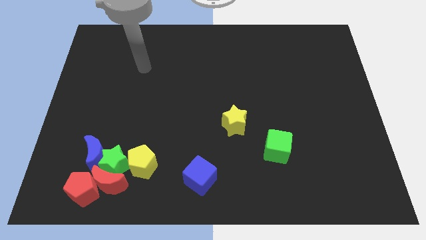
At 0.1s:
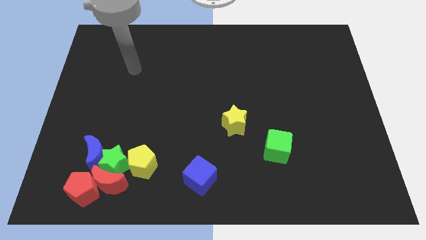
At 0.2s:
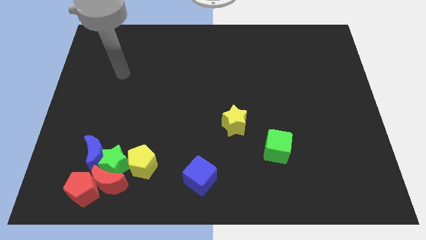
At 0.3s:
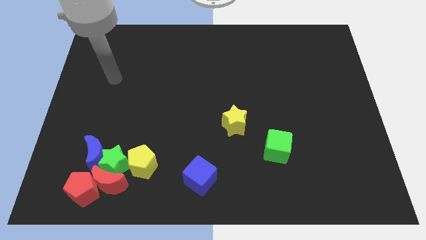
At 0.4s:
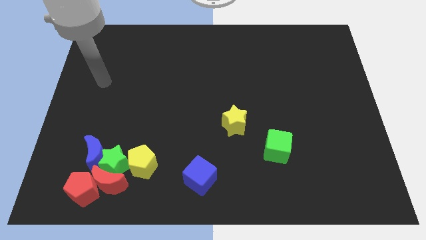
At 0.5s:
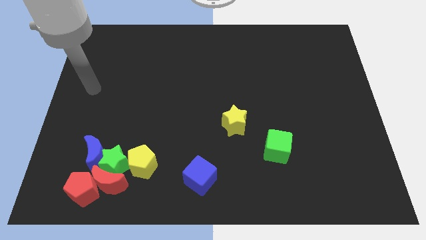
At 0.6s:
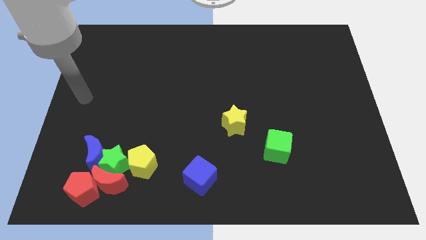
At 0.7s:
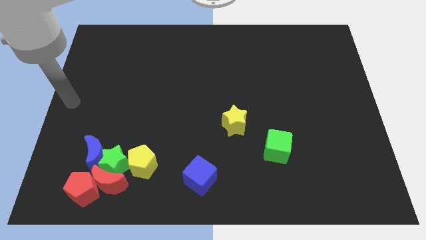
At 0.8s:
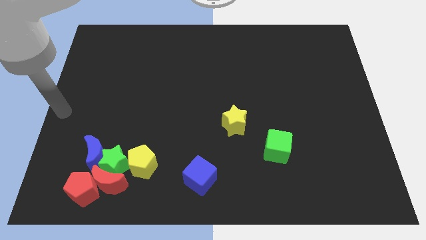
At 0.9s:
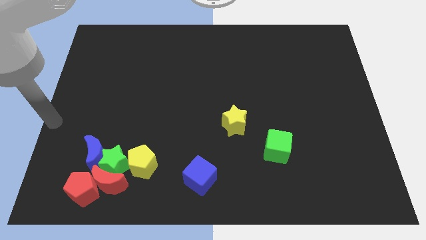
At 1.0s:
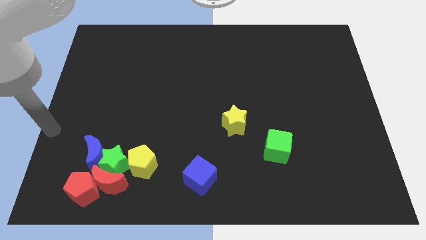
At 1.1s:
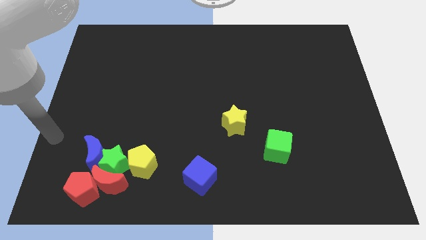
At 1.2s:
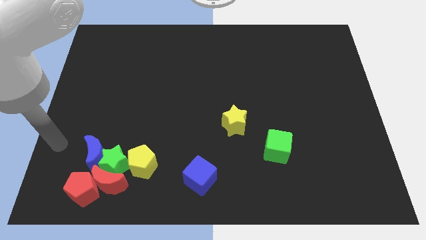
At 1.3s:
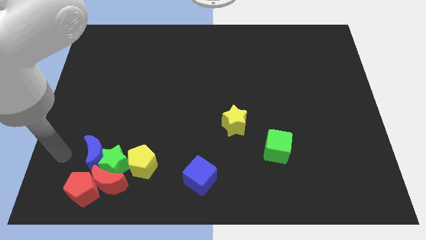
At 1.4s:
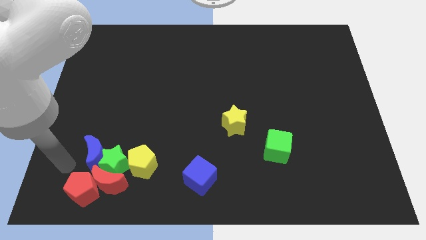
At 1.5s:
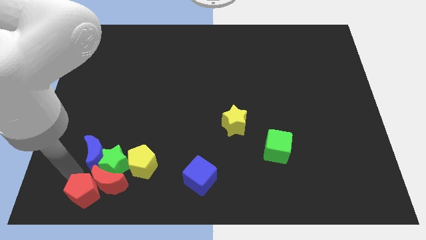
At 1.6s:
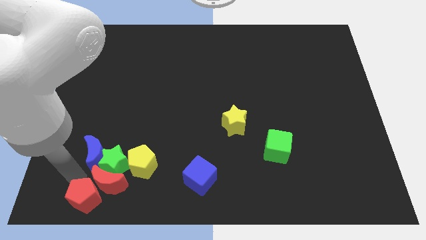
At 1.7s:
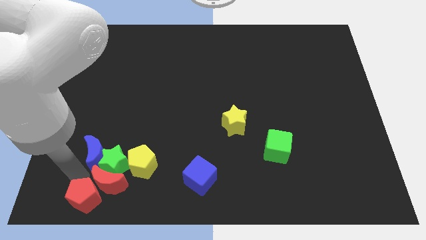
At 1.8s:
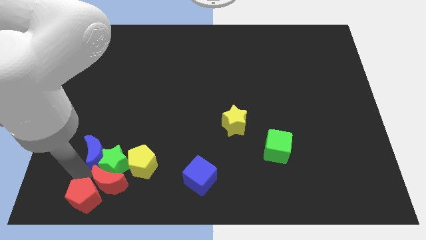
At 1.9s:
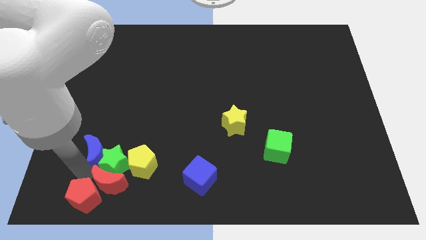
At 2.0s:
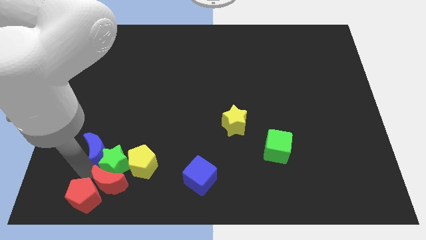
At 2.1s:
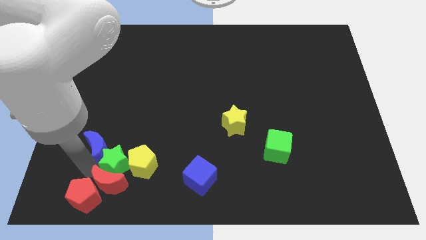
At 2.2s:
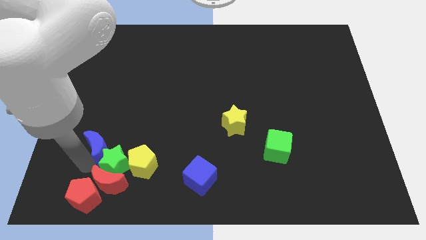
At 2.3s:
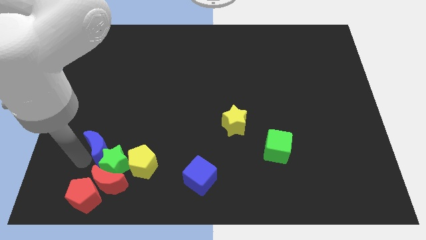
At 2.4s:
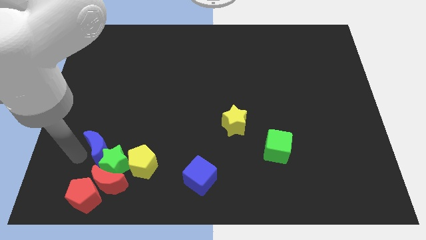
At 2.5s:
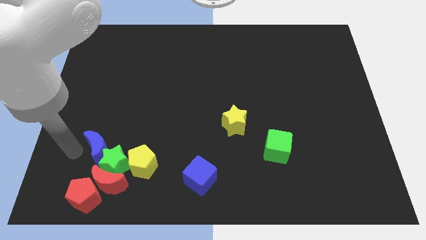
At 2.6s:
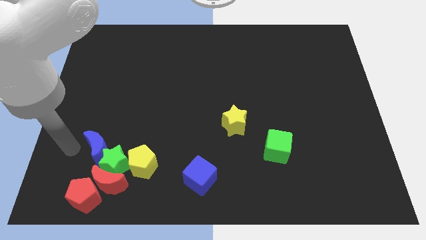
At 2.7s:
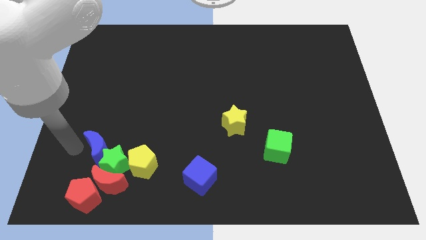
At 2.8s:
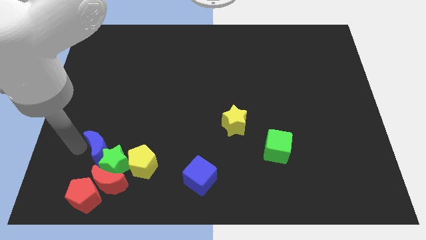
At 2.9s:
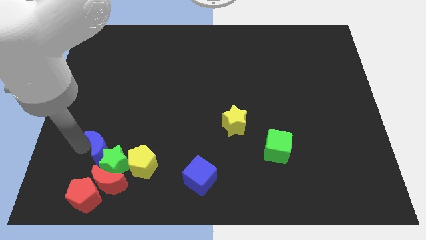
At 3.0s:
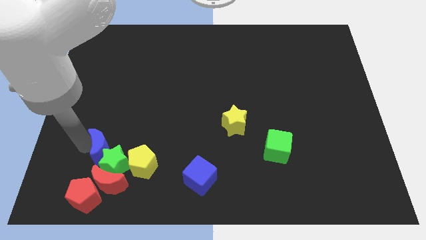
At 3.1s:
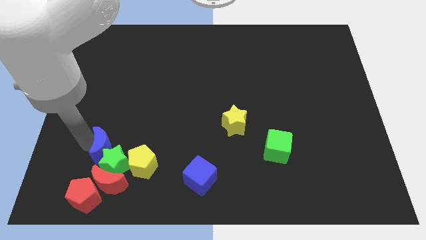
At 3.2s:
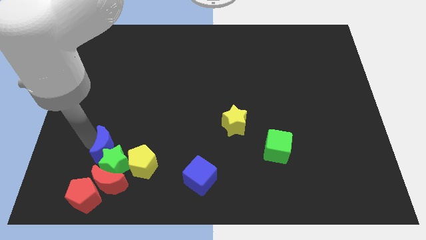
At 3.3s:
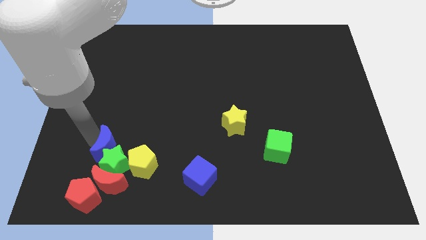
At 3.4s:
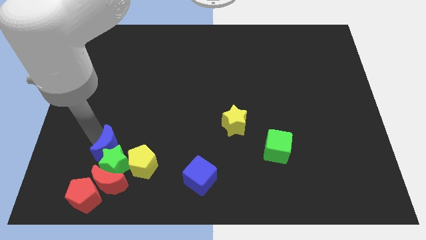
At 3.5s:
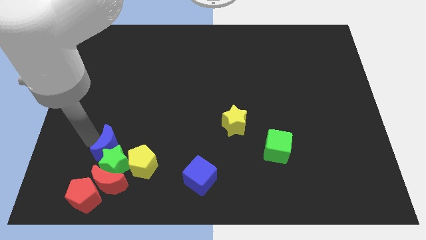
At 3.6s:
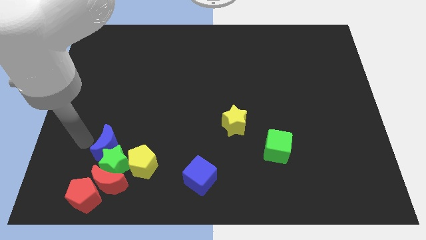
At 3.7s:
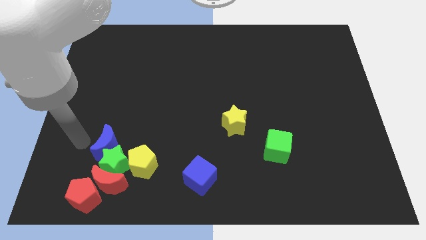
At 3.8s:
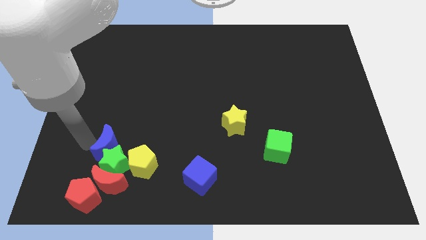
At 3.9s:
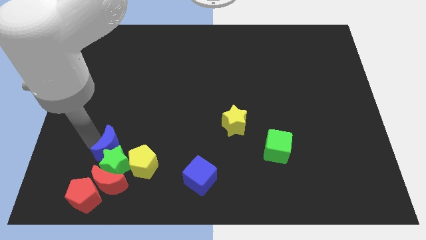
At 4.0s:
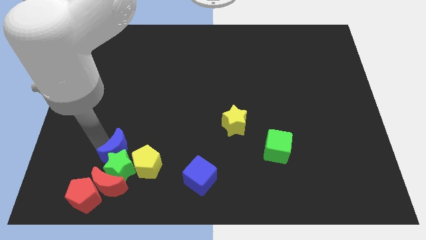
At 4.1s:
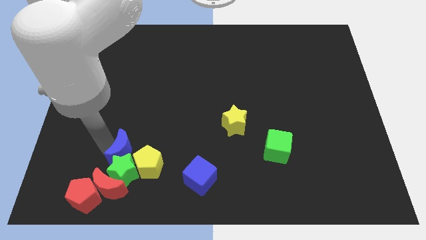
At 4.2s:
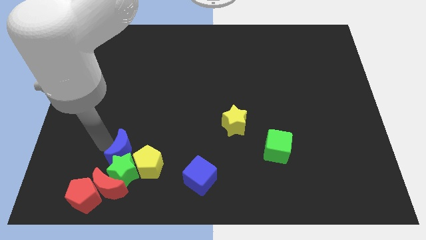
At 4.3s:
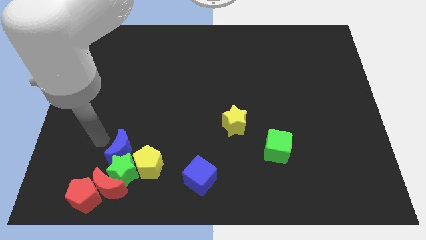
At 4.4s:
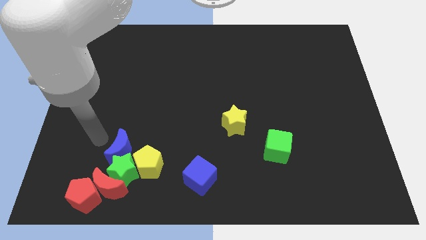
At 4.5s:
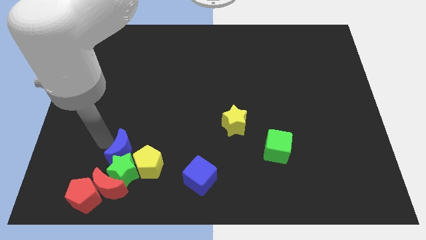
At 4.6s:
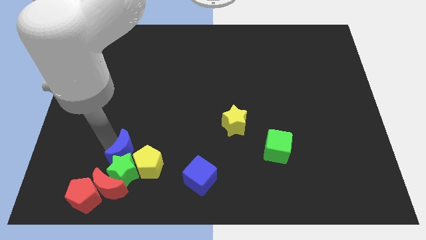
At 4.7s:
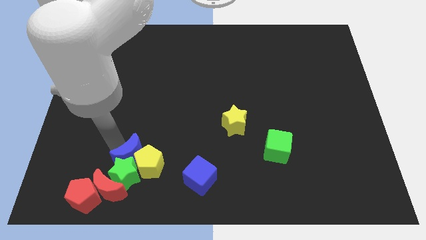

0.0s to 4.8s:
move the blue moon next to the yellow pentagon

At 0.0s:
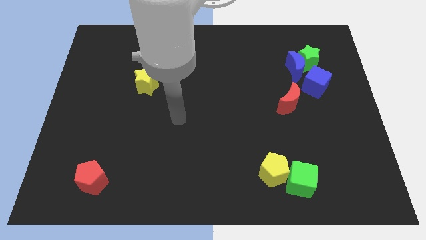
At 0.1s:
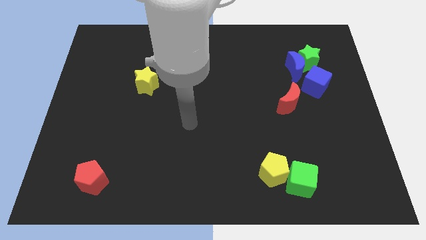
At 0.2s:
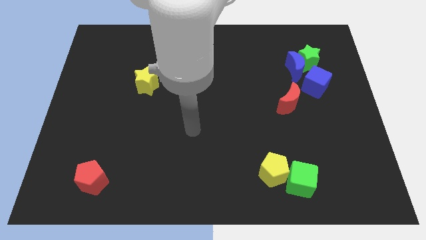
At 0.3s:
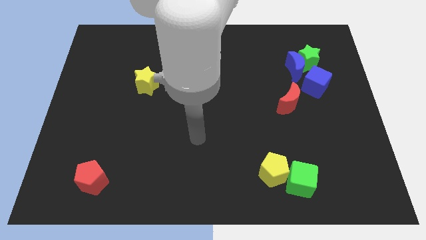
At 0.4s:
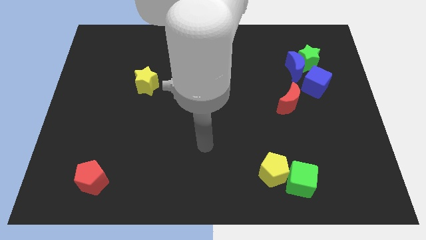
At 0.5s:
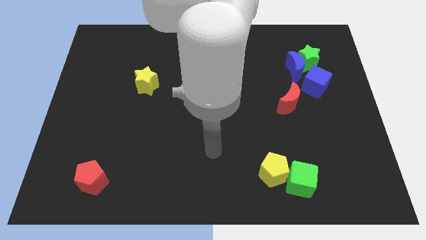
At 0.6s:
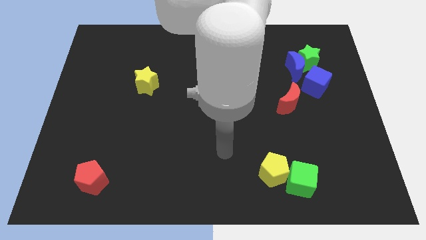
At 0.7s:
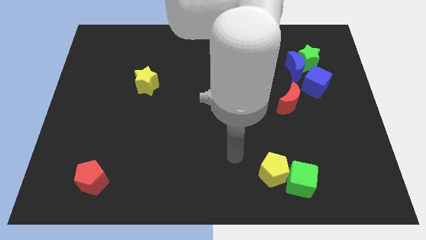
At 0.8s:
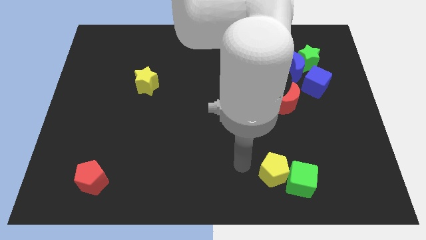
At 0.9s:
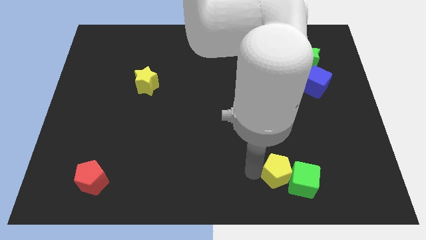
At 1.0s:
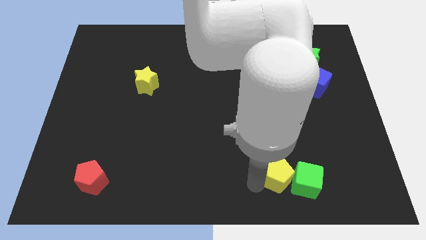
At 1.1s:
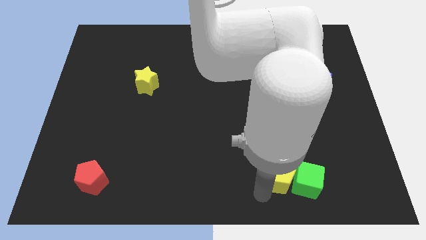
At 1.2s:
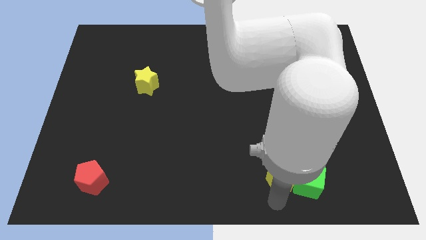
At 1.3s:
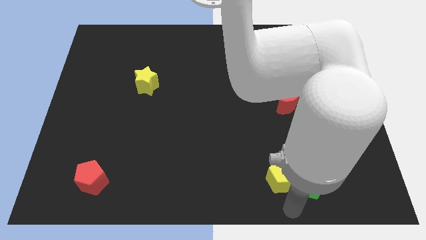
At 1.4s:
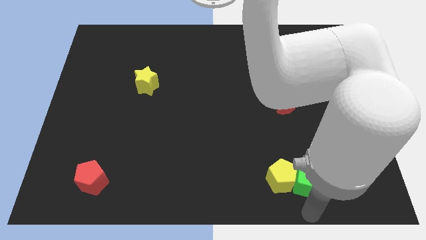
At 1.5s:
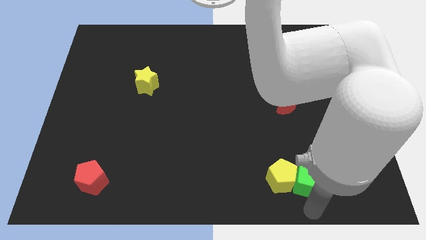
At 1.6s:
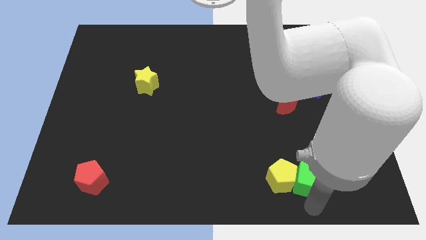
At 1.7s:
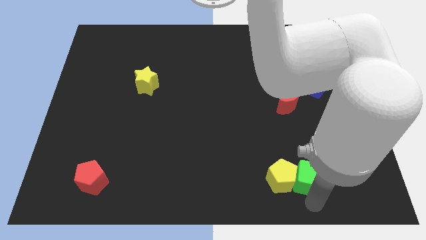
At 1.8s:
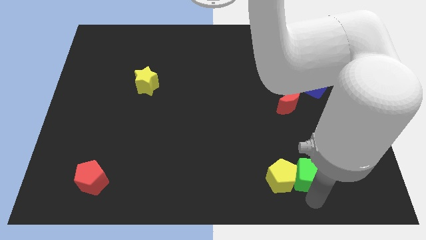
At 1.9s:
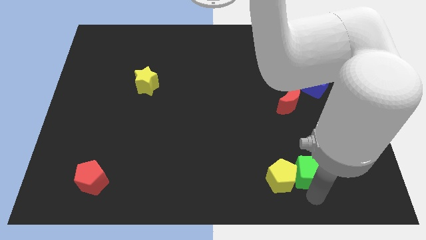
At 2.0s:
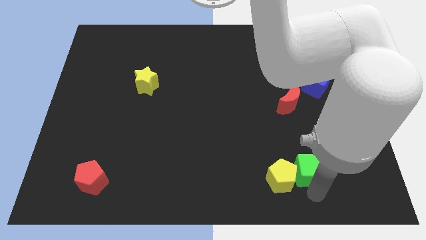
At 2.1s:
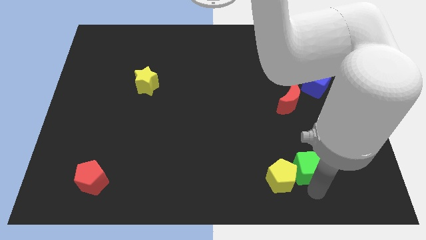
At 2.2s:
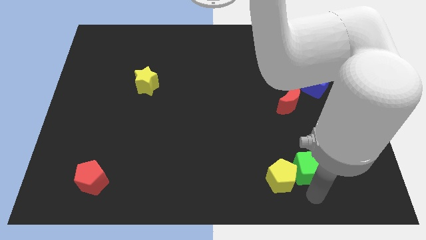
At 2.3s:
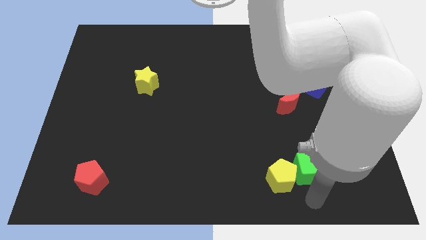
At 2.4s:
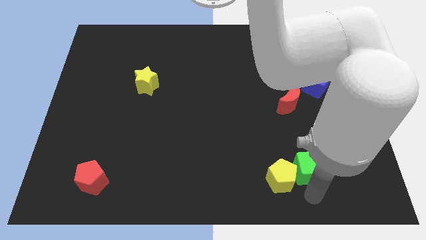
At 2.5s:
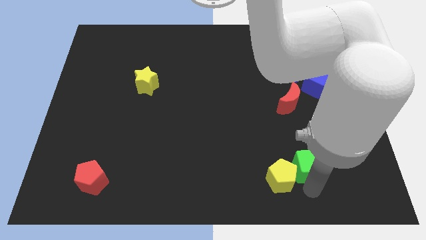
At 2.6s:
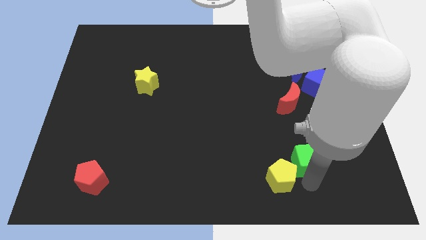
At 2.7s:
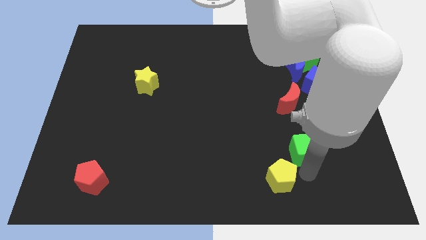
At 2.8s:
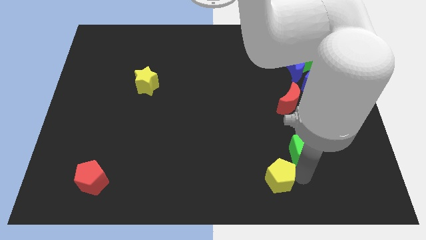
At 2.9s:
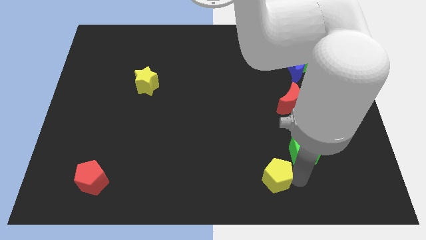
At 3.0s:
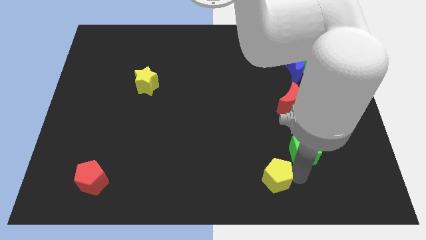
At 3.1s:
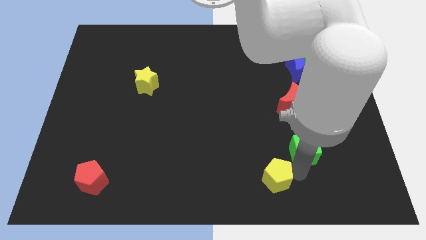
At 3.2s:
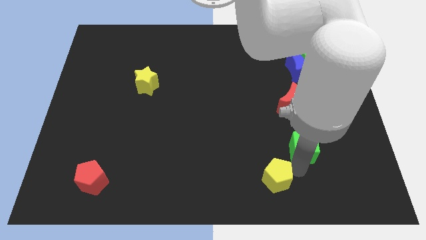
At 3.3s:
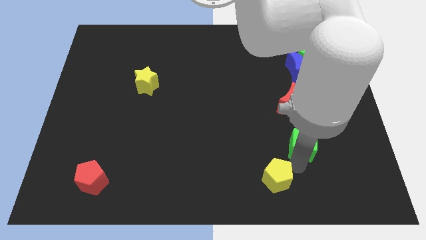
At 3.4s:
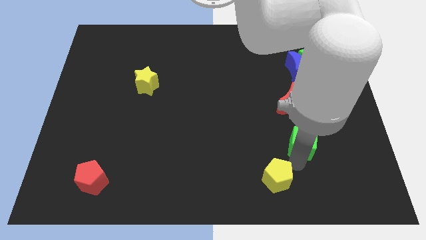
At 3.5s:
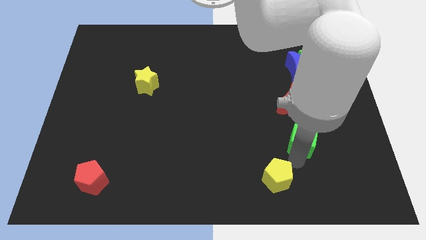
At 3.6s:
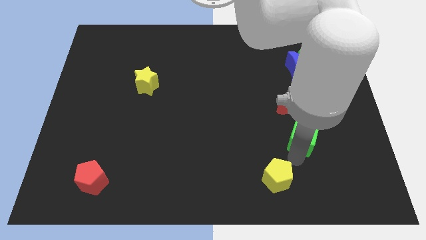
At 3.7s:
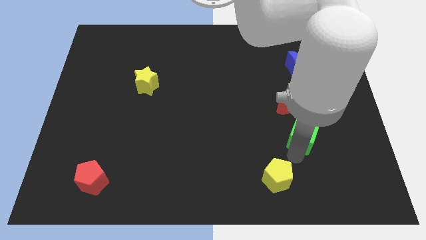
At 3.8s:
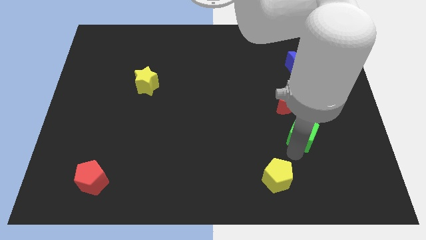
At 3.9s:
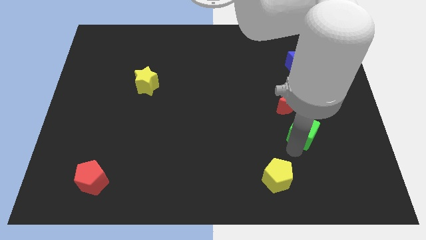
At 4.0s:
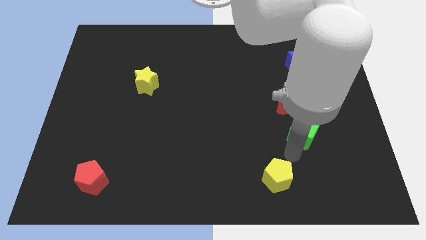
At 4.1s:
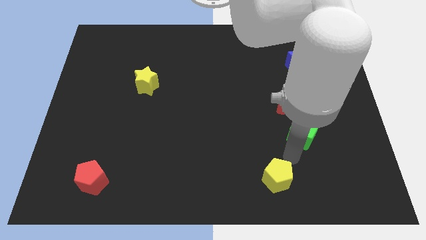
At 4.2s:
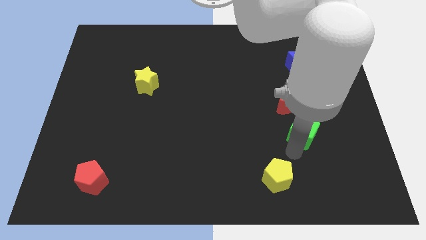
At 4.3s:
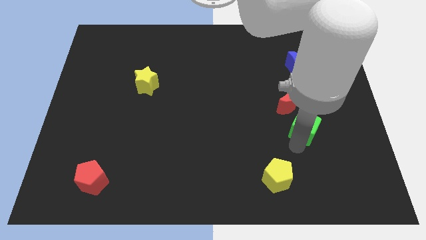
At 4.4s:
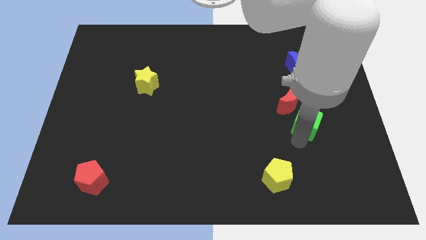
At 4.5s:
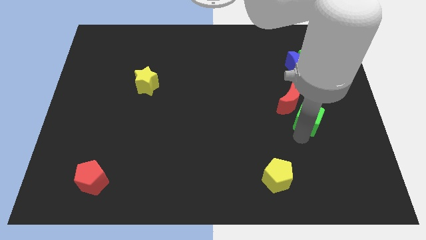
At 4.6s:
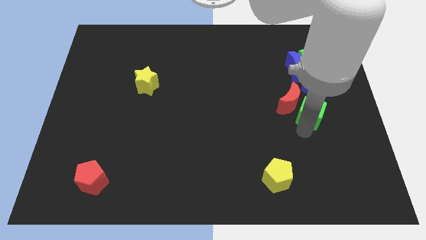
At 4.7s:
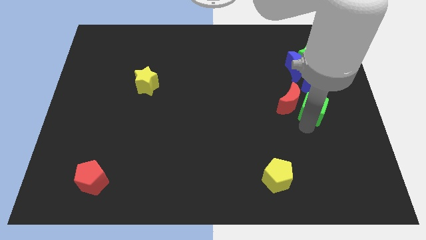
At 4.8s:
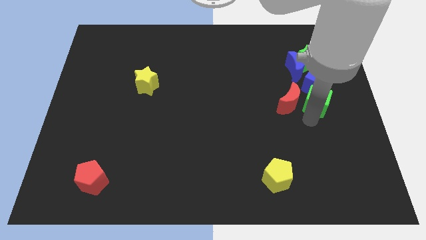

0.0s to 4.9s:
push the green cube towards the blue cube
